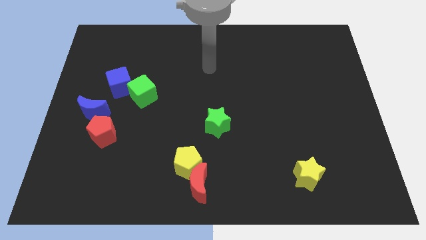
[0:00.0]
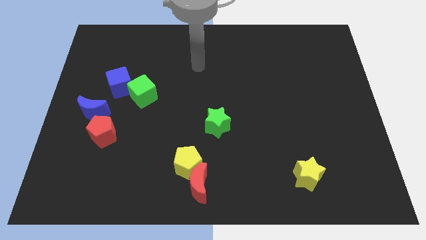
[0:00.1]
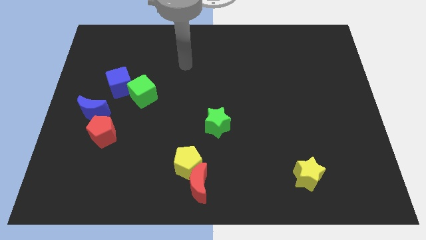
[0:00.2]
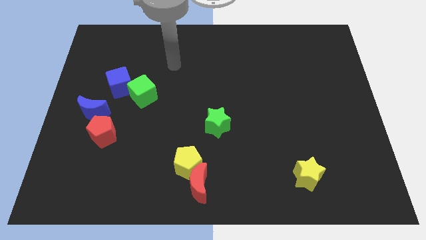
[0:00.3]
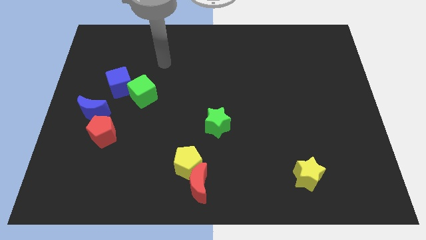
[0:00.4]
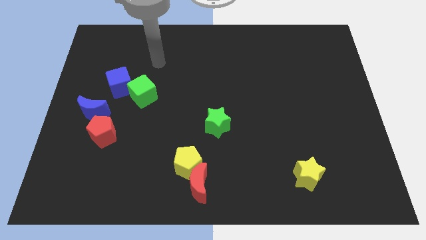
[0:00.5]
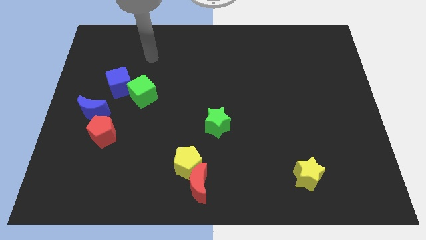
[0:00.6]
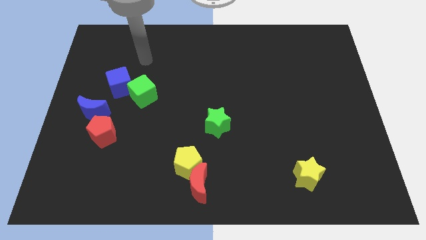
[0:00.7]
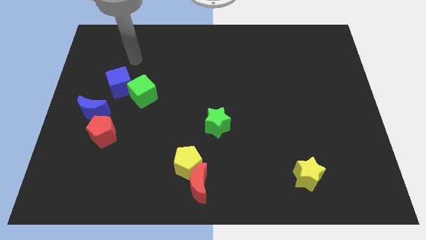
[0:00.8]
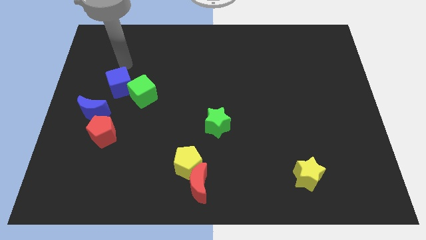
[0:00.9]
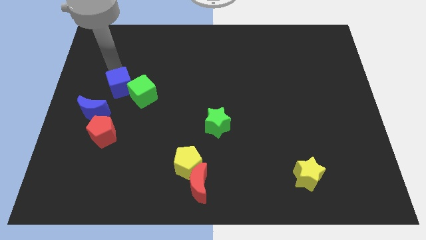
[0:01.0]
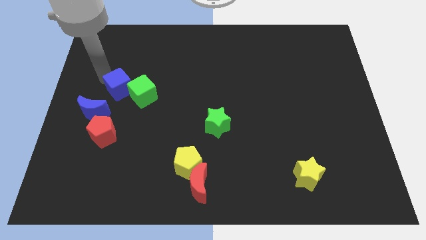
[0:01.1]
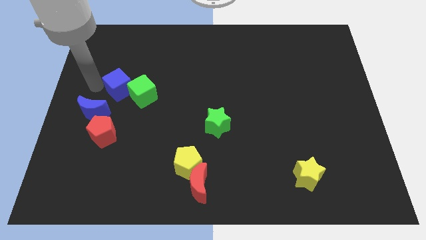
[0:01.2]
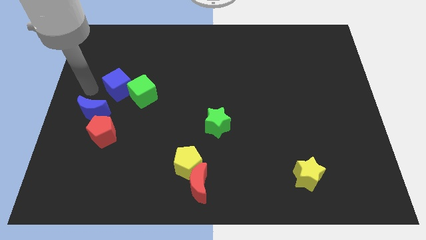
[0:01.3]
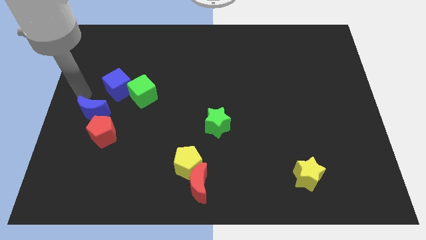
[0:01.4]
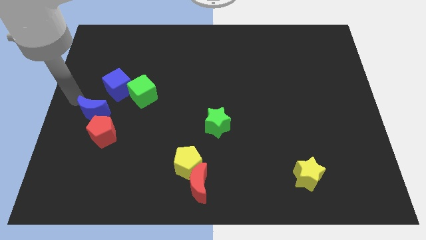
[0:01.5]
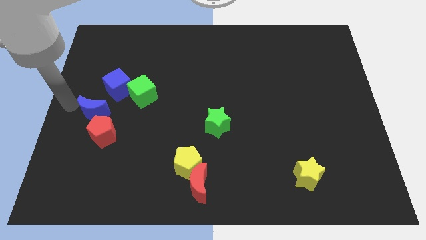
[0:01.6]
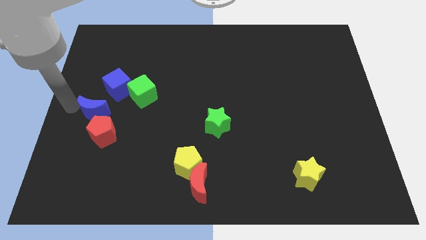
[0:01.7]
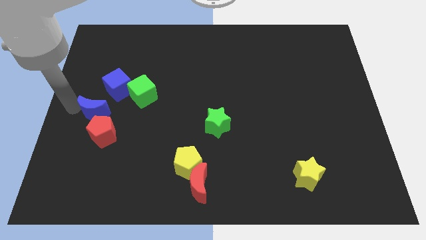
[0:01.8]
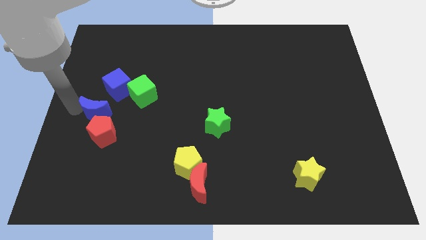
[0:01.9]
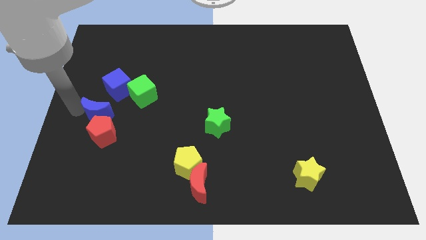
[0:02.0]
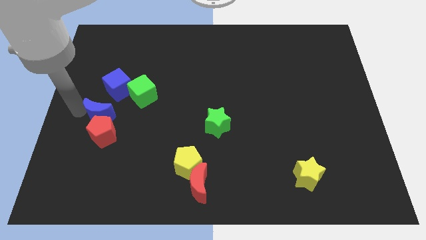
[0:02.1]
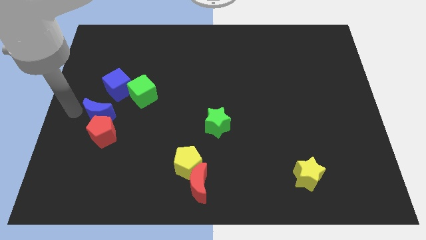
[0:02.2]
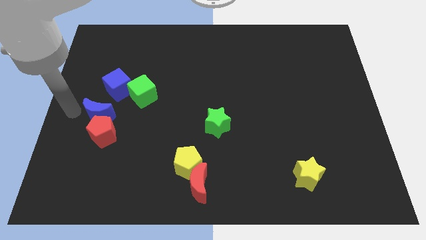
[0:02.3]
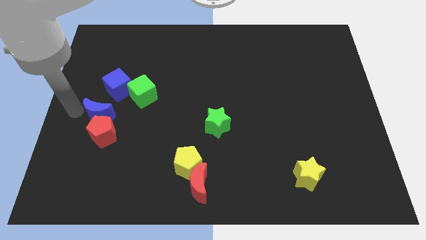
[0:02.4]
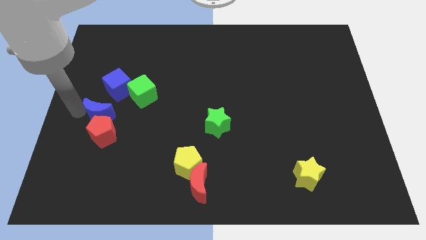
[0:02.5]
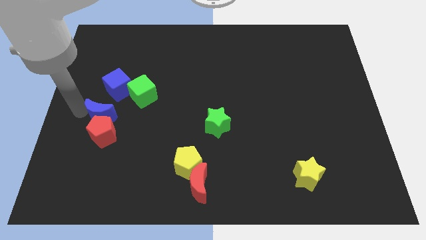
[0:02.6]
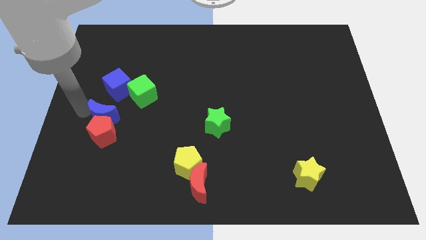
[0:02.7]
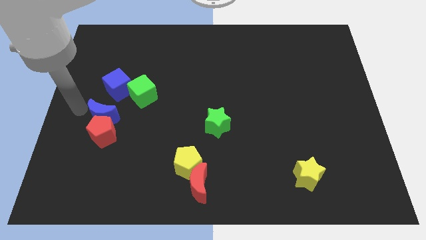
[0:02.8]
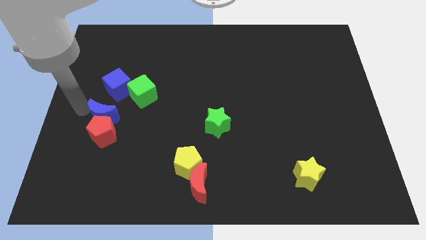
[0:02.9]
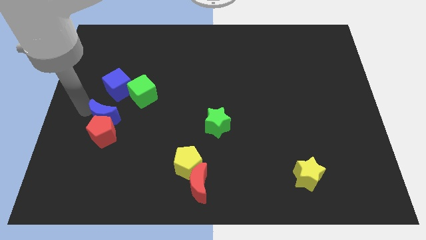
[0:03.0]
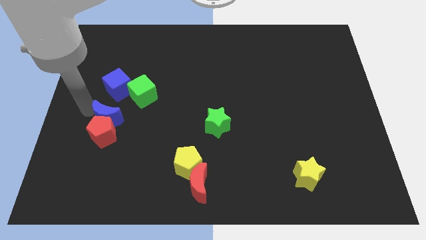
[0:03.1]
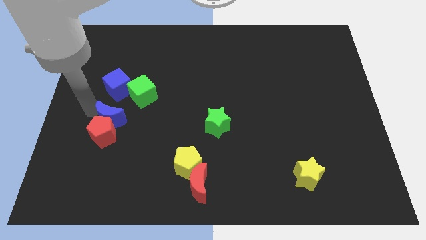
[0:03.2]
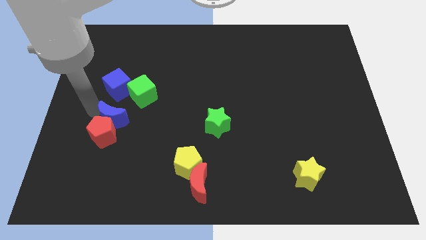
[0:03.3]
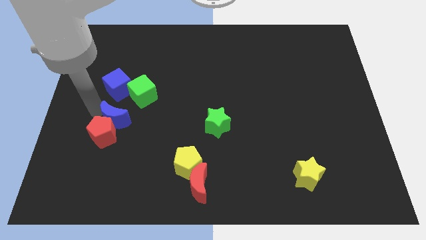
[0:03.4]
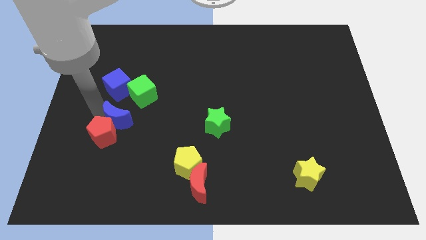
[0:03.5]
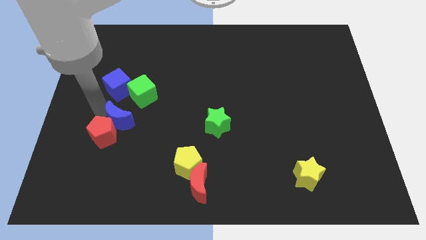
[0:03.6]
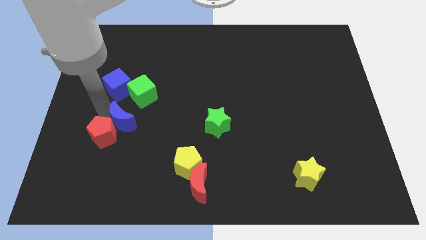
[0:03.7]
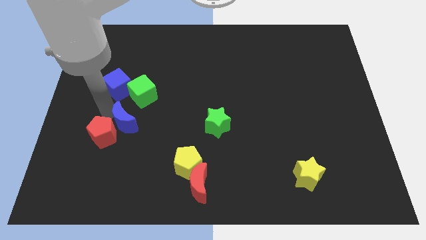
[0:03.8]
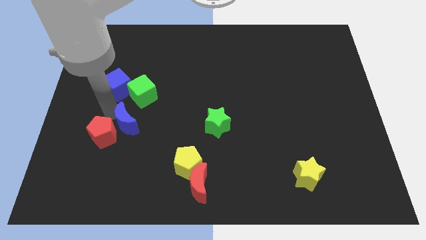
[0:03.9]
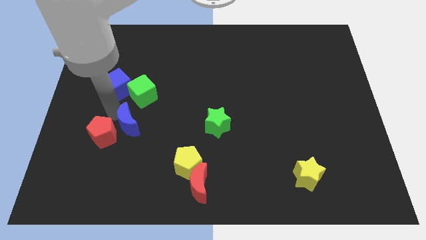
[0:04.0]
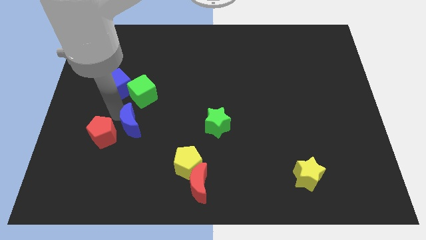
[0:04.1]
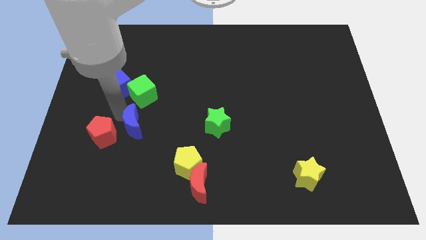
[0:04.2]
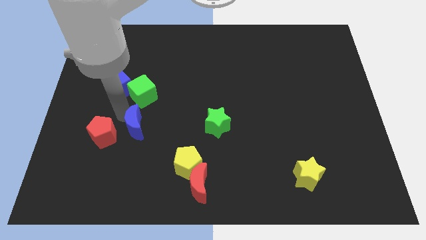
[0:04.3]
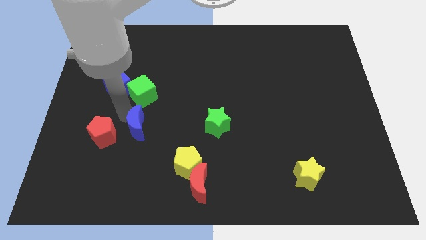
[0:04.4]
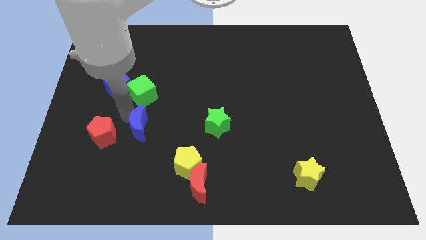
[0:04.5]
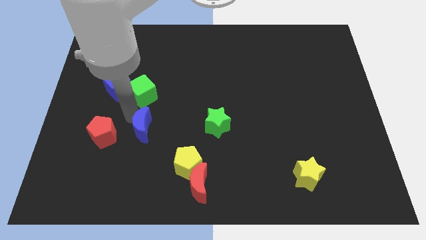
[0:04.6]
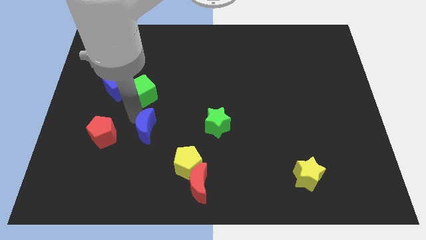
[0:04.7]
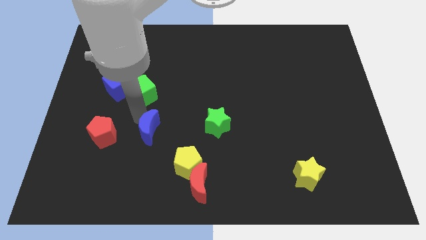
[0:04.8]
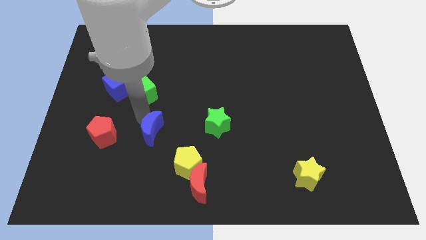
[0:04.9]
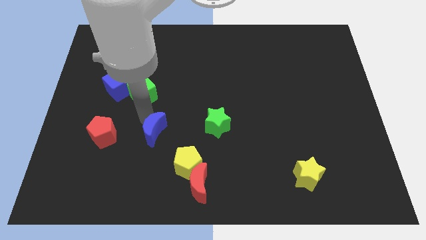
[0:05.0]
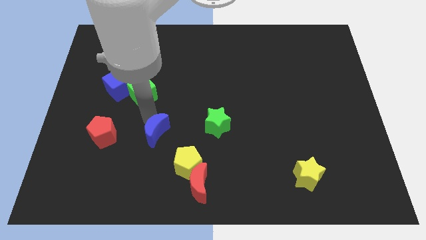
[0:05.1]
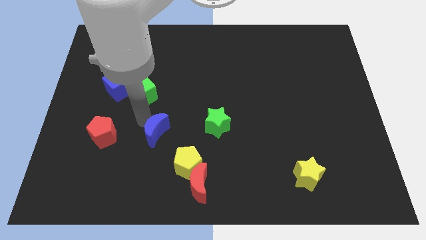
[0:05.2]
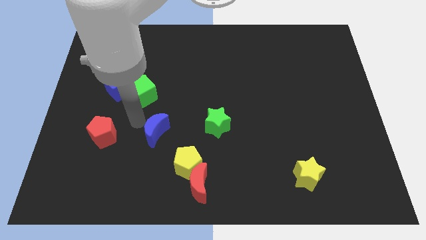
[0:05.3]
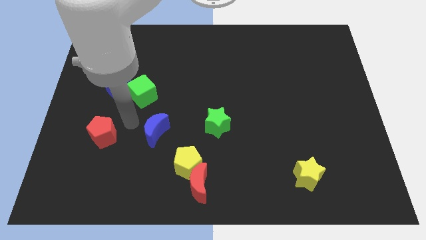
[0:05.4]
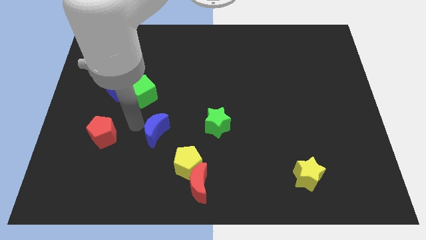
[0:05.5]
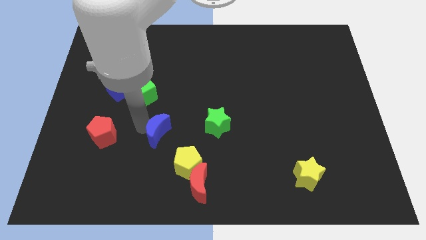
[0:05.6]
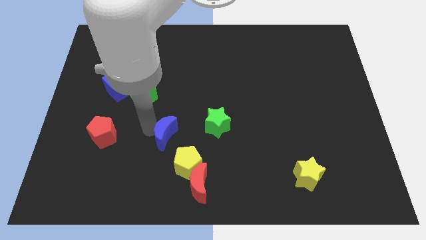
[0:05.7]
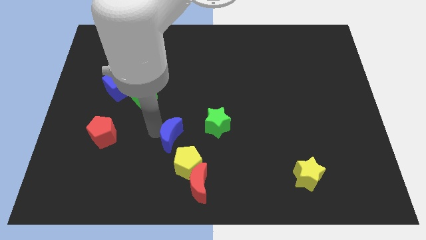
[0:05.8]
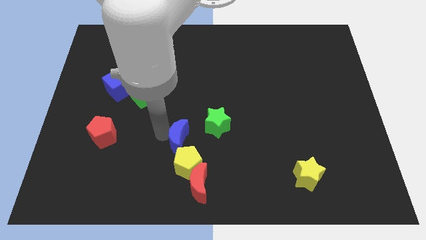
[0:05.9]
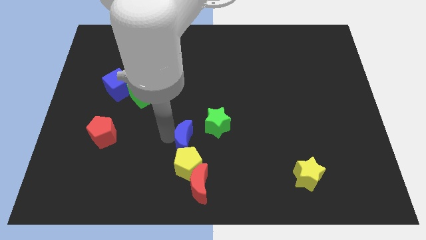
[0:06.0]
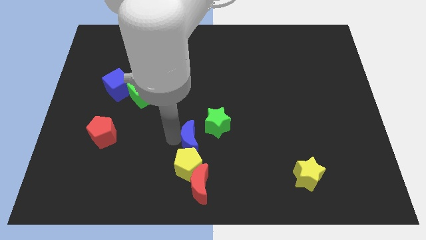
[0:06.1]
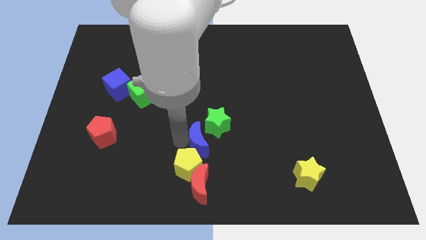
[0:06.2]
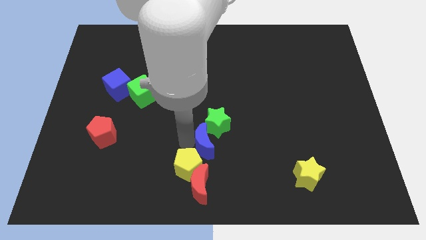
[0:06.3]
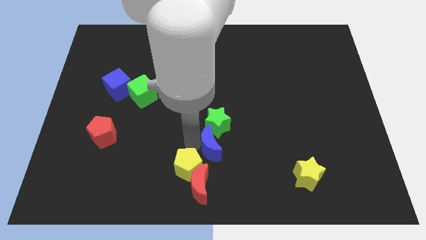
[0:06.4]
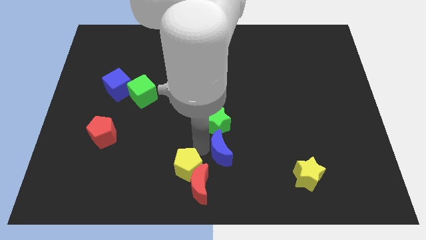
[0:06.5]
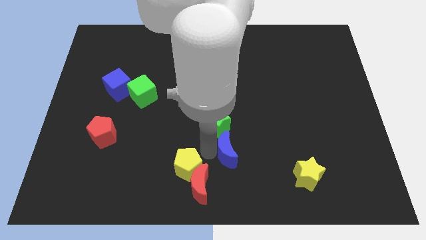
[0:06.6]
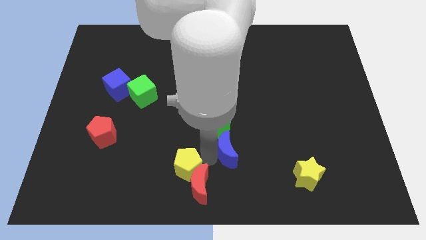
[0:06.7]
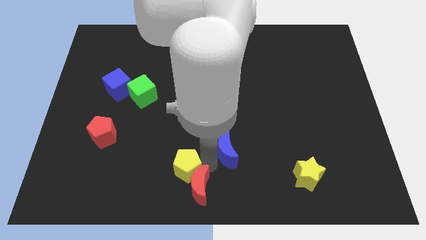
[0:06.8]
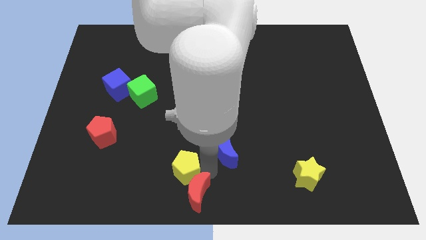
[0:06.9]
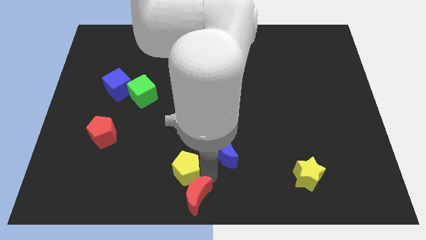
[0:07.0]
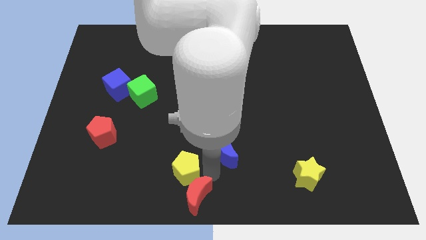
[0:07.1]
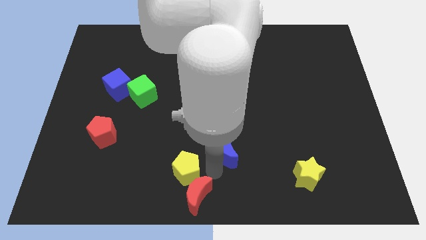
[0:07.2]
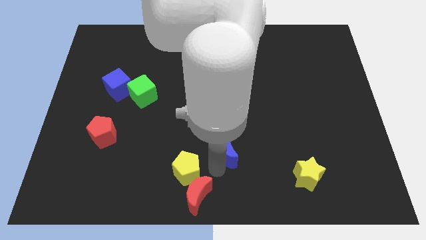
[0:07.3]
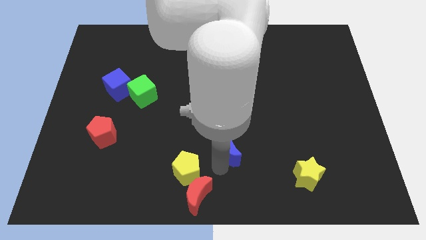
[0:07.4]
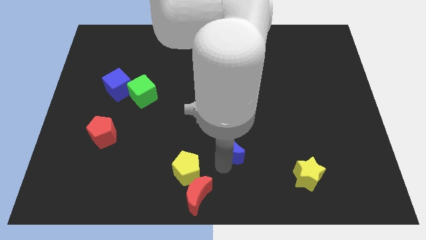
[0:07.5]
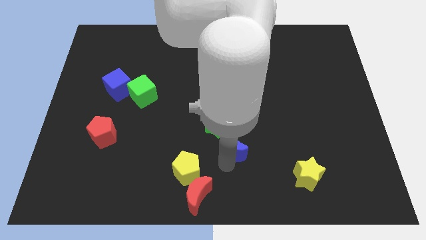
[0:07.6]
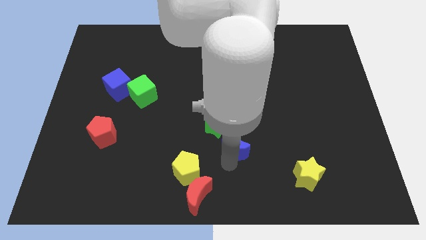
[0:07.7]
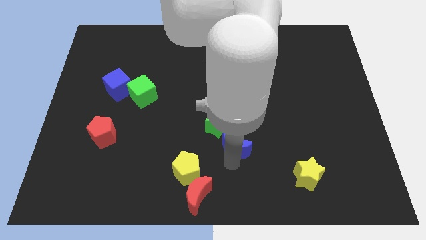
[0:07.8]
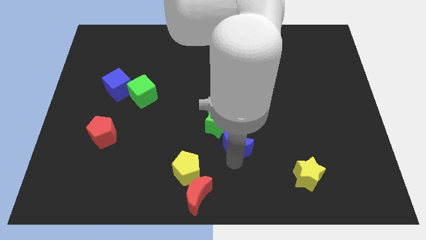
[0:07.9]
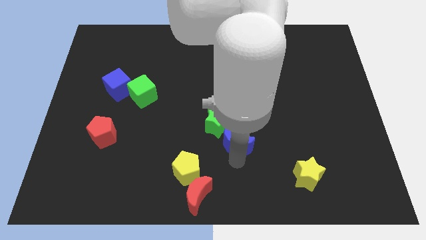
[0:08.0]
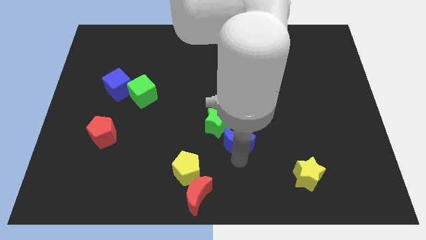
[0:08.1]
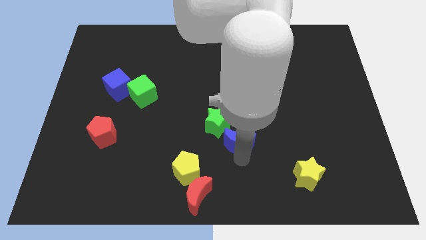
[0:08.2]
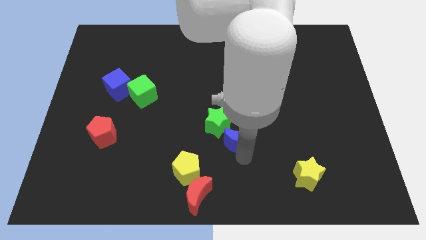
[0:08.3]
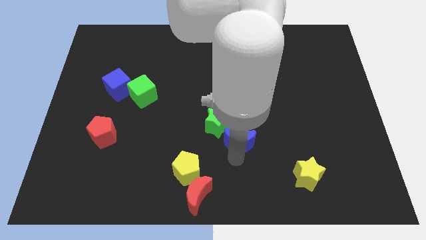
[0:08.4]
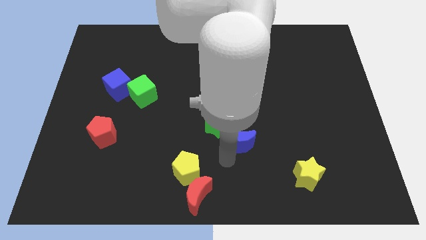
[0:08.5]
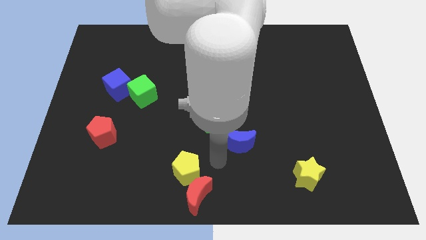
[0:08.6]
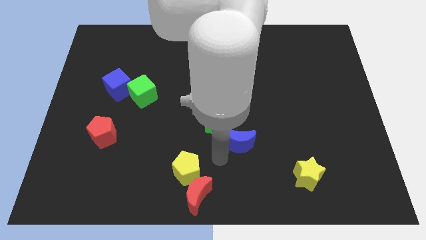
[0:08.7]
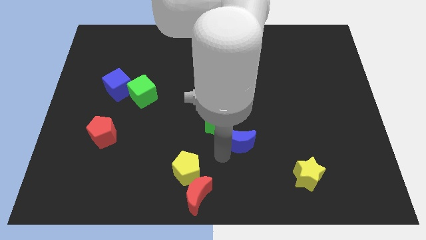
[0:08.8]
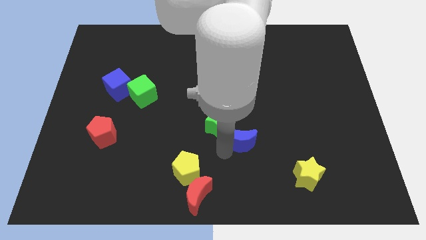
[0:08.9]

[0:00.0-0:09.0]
push the blue moon right of the green star
